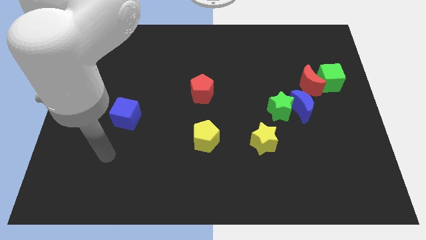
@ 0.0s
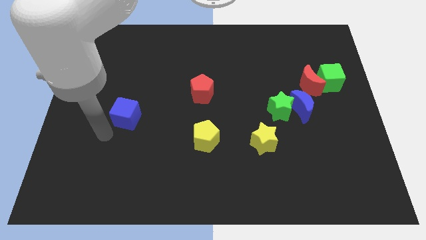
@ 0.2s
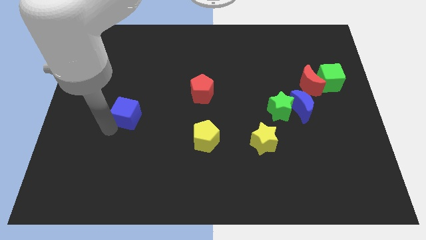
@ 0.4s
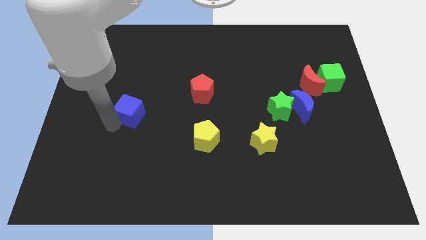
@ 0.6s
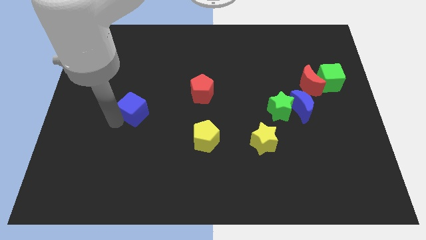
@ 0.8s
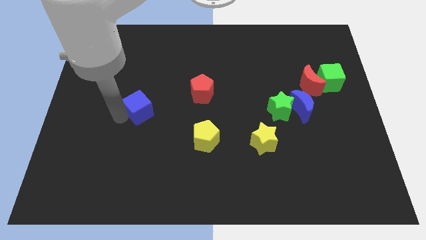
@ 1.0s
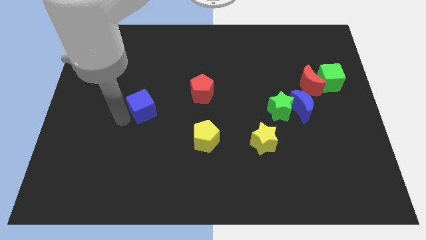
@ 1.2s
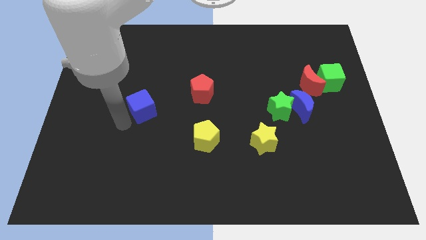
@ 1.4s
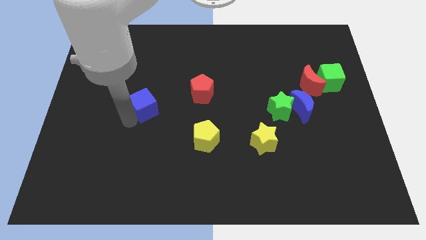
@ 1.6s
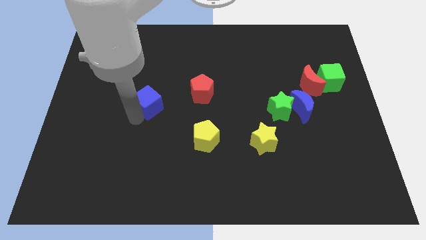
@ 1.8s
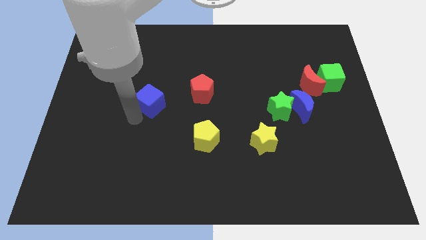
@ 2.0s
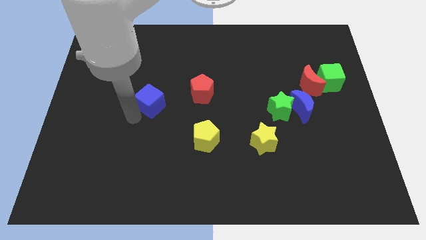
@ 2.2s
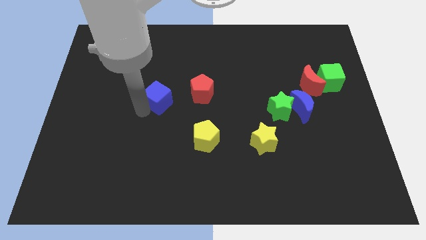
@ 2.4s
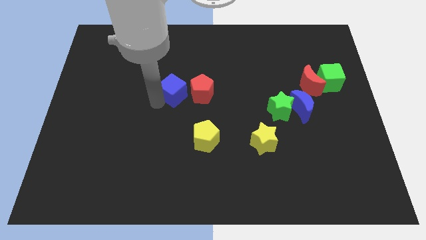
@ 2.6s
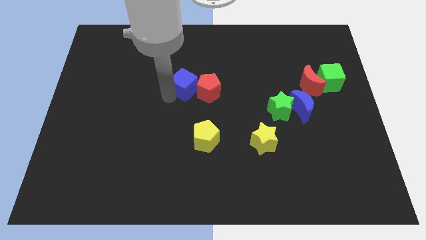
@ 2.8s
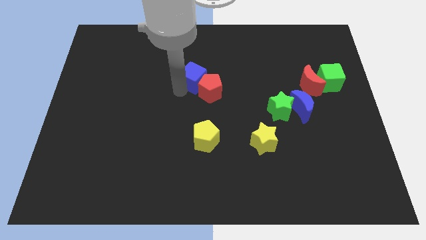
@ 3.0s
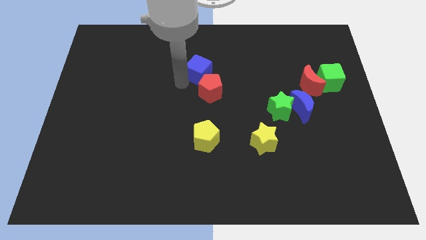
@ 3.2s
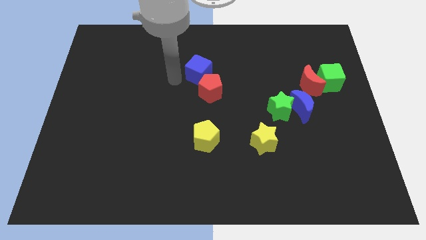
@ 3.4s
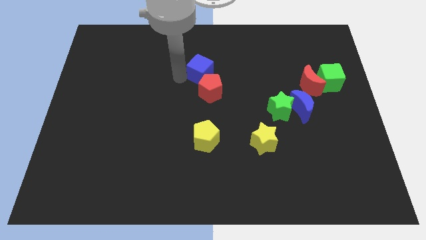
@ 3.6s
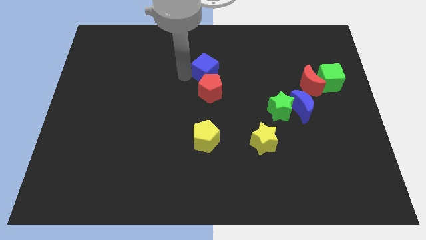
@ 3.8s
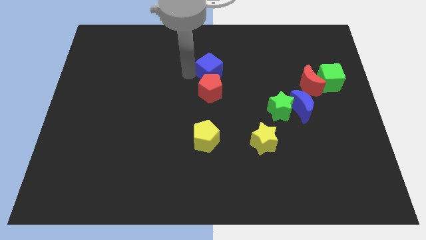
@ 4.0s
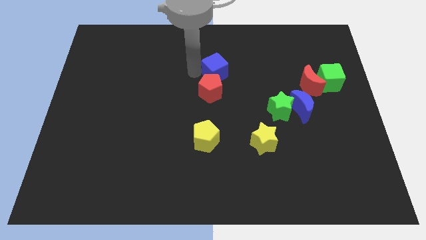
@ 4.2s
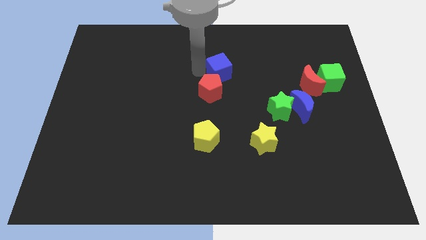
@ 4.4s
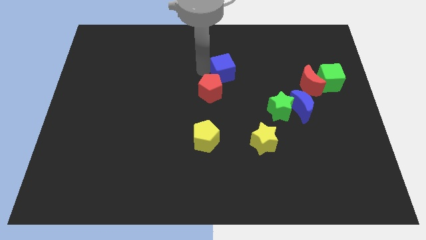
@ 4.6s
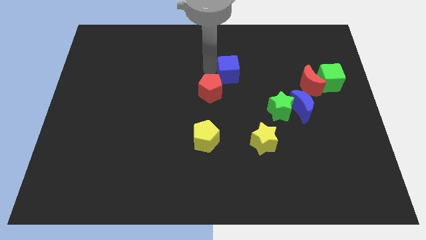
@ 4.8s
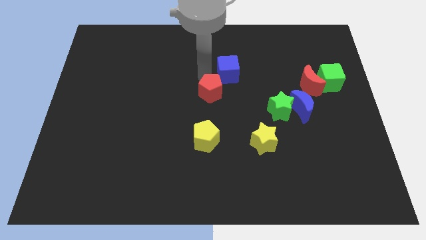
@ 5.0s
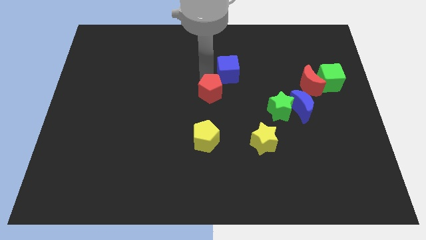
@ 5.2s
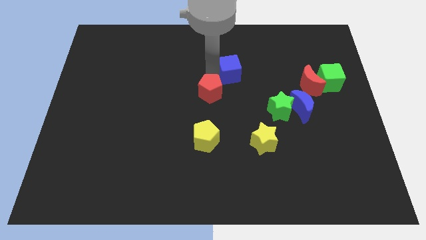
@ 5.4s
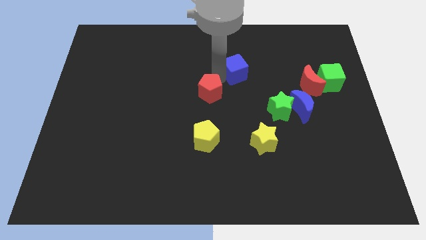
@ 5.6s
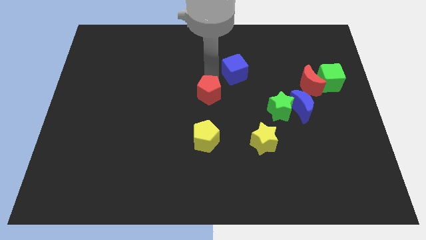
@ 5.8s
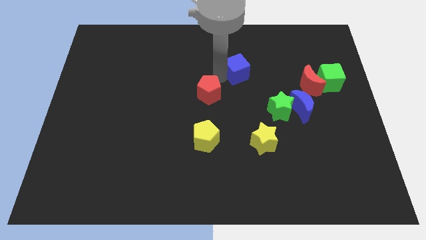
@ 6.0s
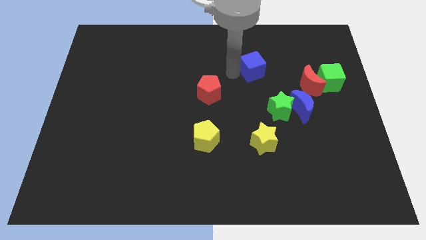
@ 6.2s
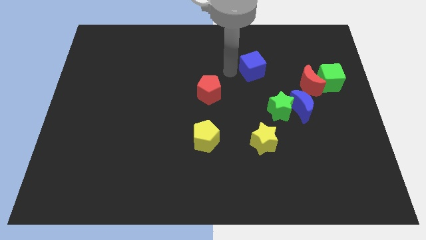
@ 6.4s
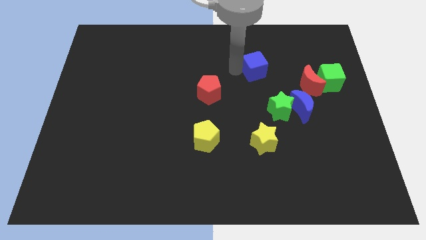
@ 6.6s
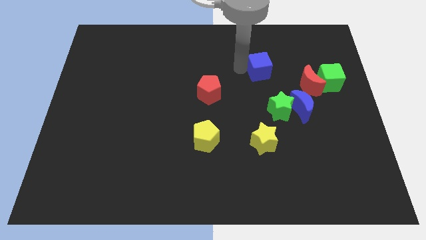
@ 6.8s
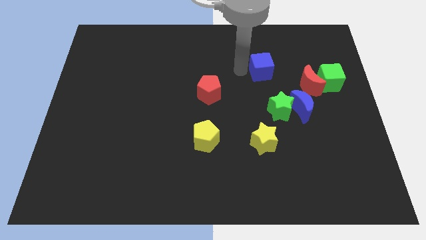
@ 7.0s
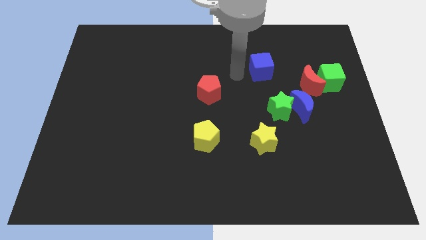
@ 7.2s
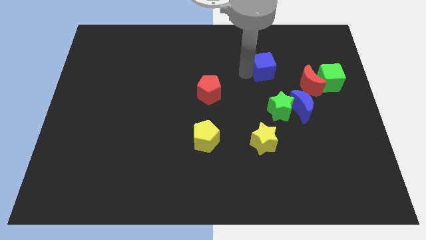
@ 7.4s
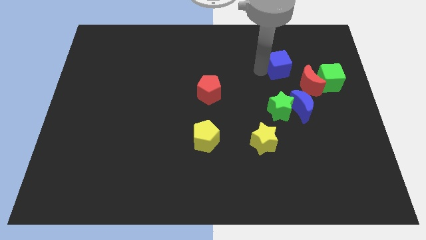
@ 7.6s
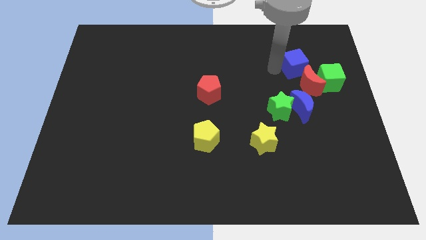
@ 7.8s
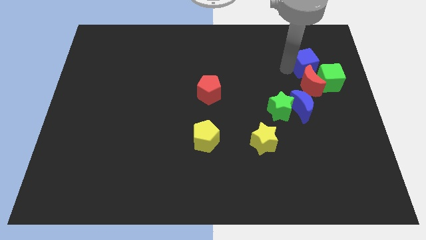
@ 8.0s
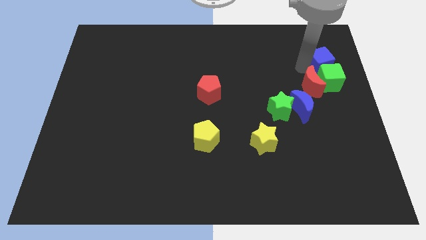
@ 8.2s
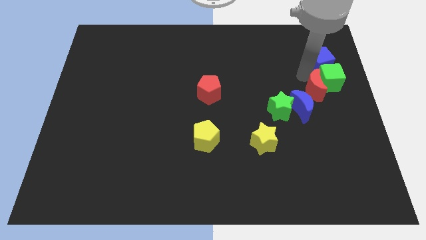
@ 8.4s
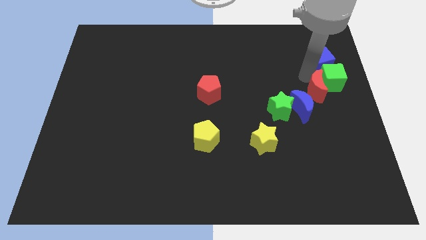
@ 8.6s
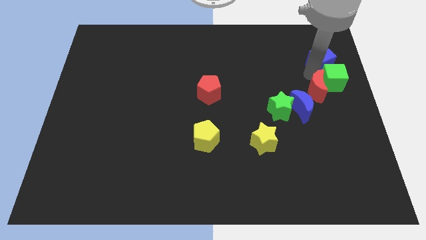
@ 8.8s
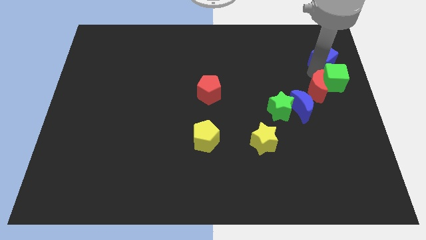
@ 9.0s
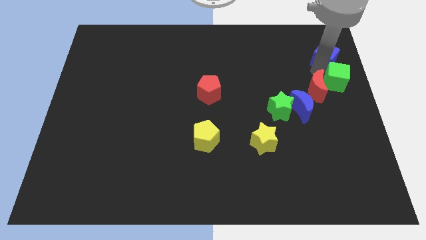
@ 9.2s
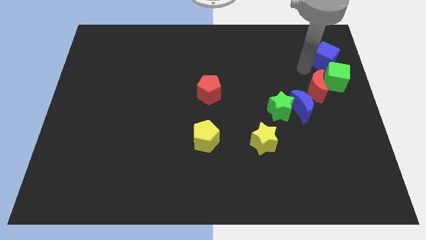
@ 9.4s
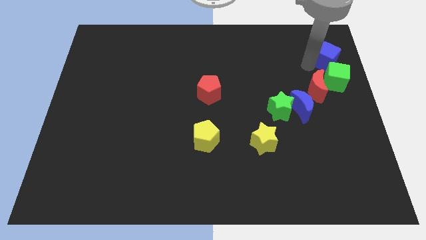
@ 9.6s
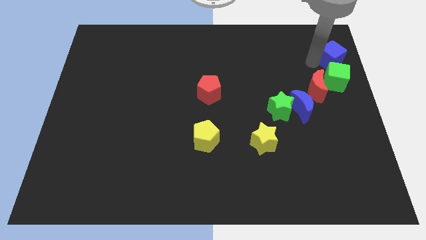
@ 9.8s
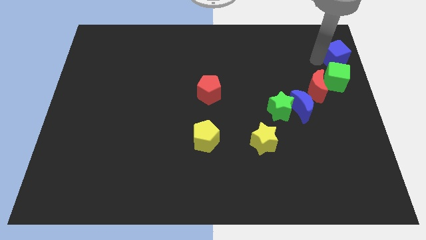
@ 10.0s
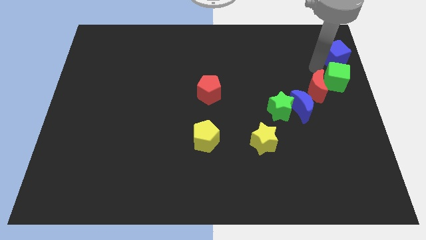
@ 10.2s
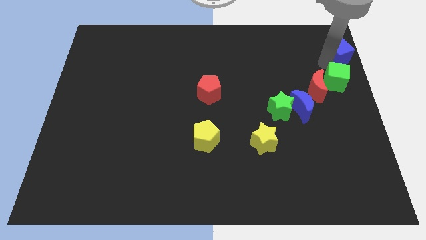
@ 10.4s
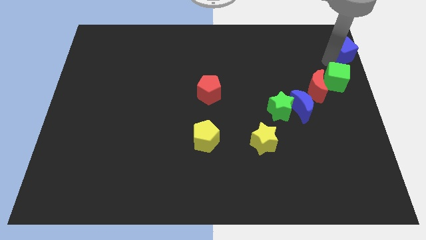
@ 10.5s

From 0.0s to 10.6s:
put the blue cube to the top right of the board

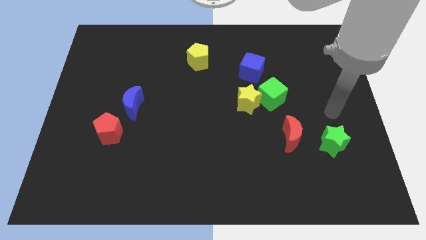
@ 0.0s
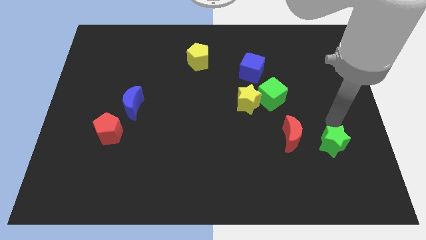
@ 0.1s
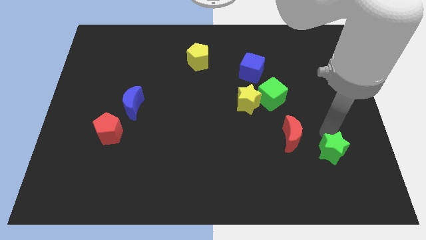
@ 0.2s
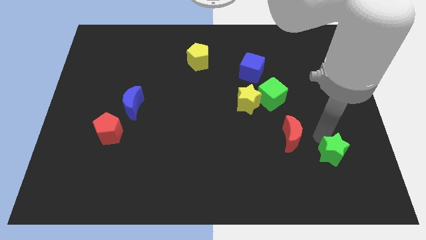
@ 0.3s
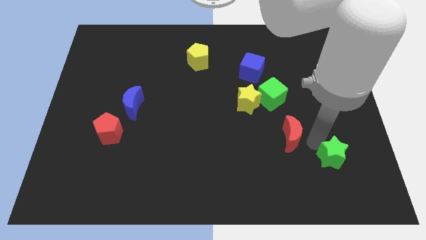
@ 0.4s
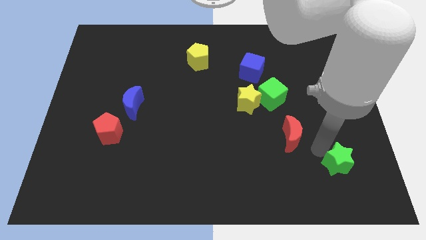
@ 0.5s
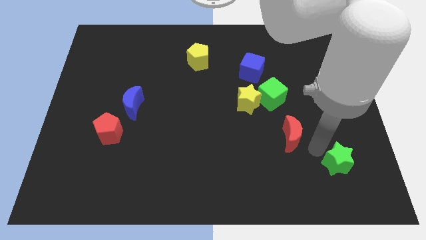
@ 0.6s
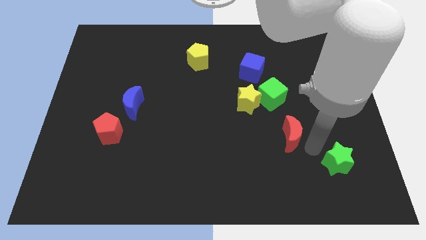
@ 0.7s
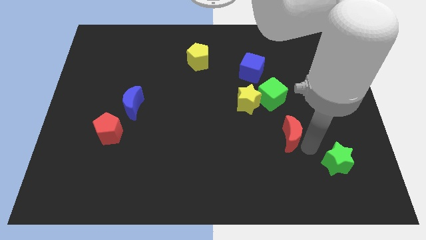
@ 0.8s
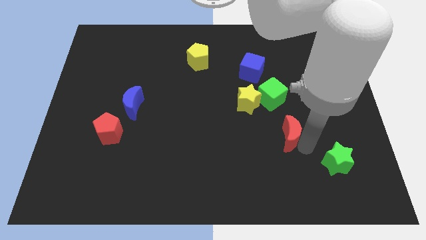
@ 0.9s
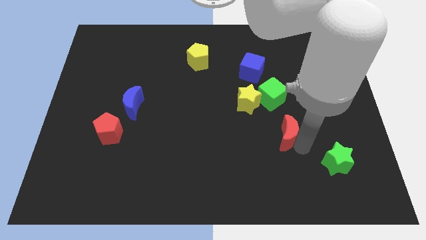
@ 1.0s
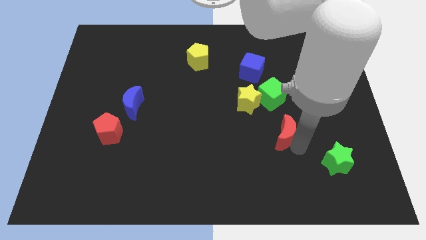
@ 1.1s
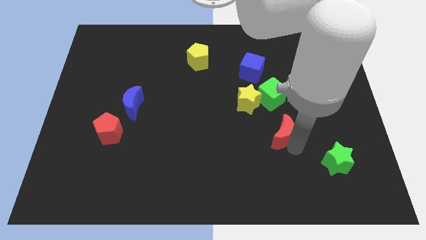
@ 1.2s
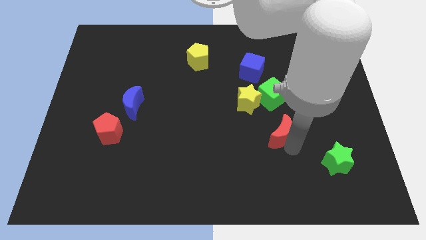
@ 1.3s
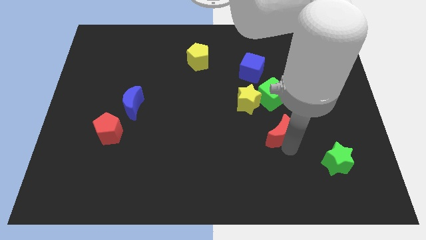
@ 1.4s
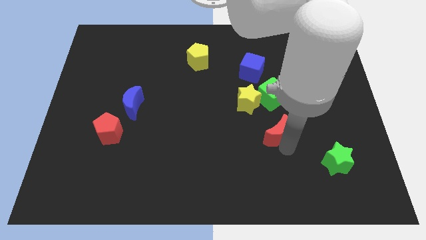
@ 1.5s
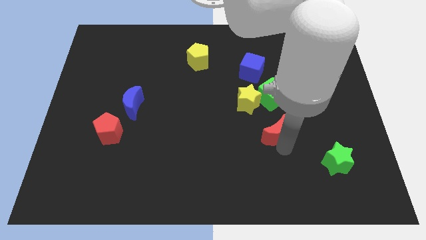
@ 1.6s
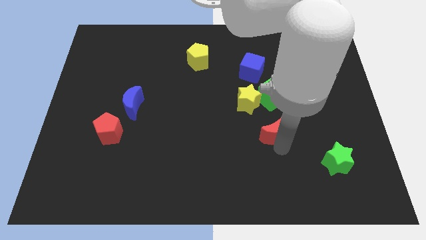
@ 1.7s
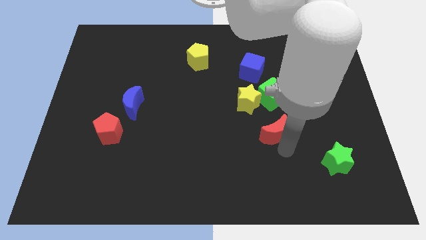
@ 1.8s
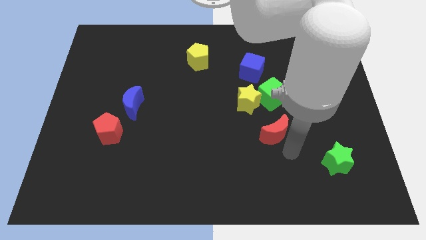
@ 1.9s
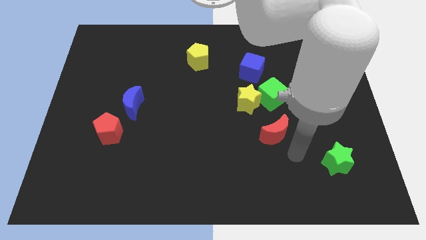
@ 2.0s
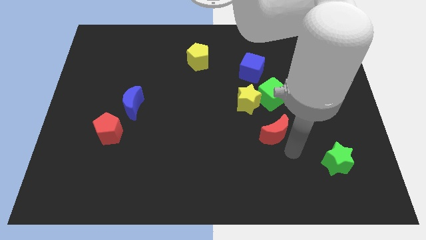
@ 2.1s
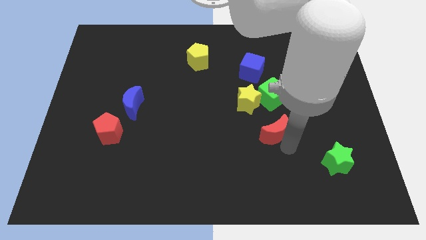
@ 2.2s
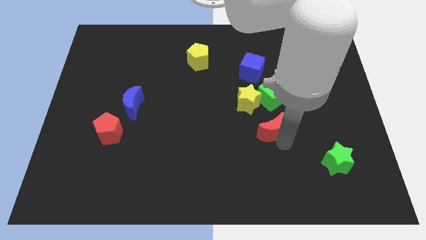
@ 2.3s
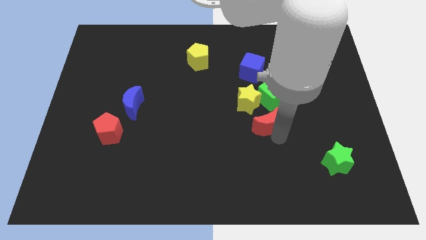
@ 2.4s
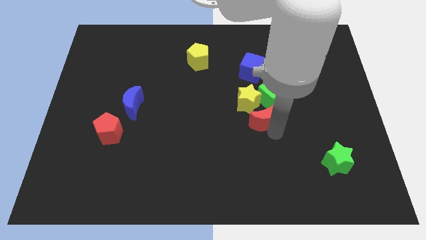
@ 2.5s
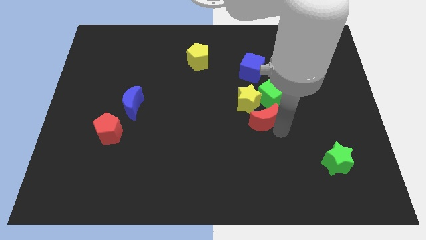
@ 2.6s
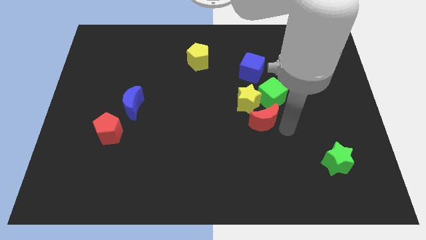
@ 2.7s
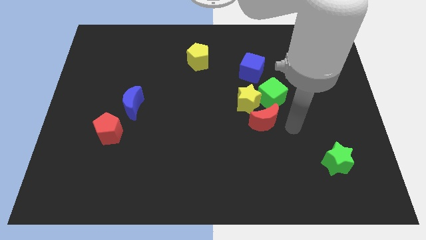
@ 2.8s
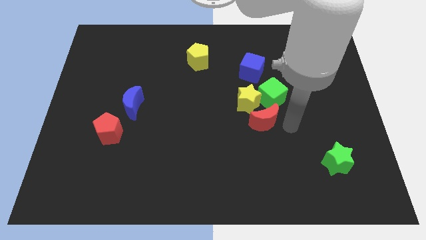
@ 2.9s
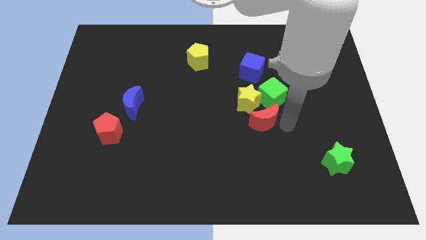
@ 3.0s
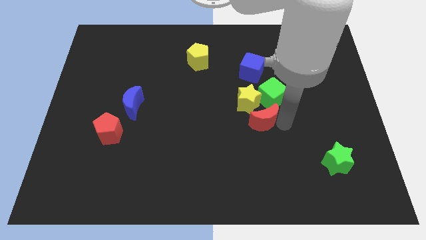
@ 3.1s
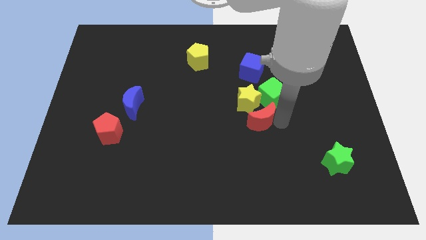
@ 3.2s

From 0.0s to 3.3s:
move the red moon to the middle of the board
